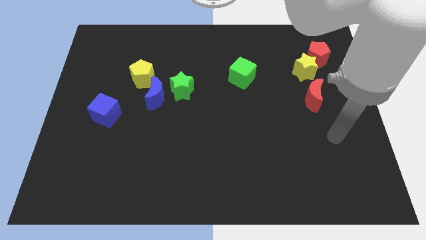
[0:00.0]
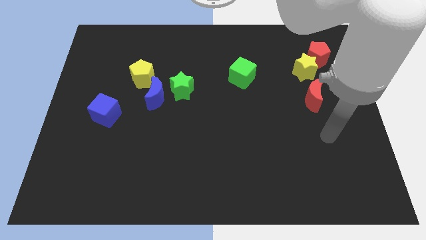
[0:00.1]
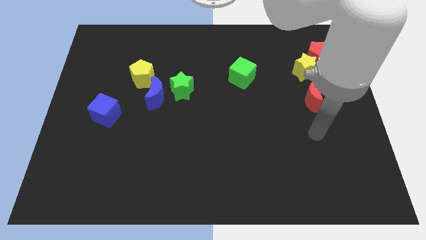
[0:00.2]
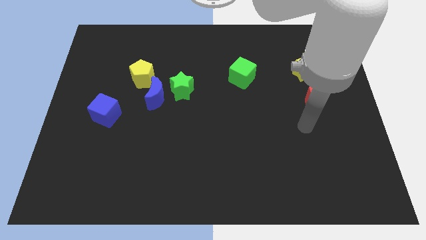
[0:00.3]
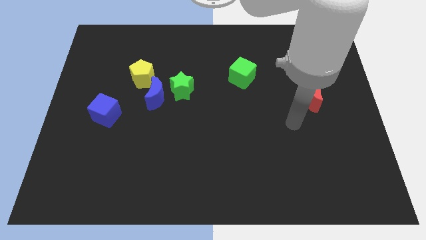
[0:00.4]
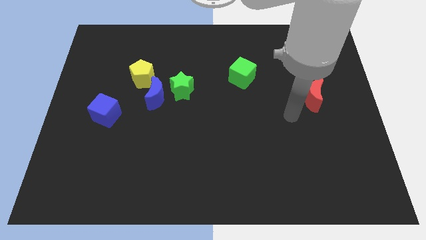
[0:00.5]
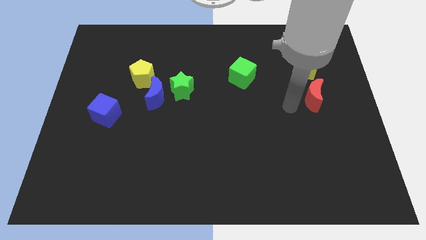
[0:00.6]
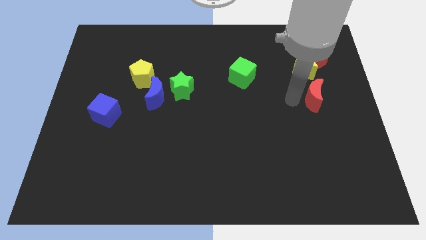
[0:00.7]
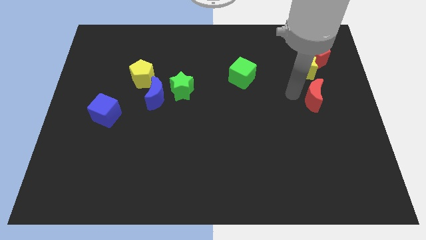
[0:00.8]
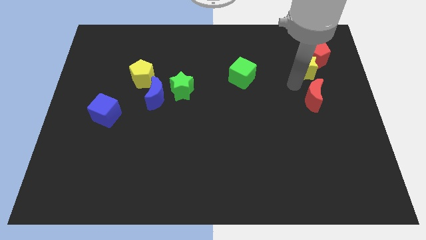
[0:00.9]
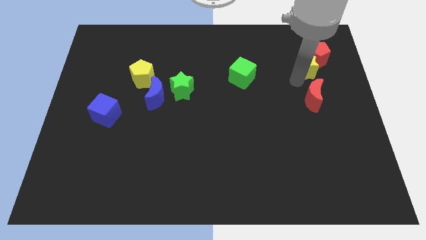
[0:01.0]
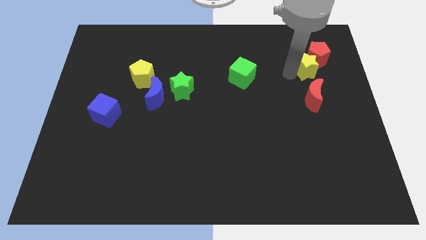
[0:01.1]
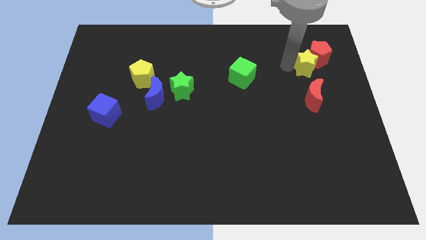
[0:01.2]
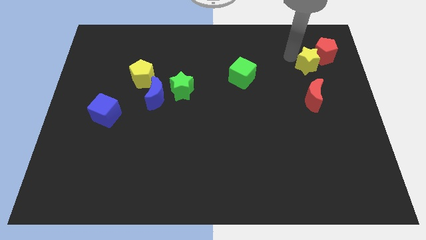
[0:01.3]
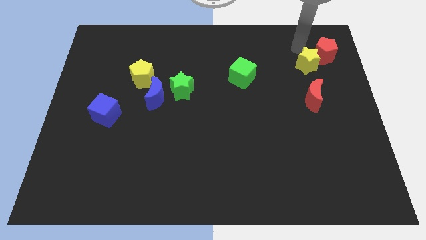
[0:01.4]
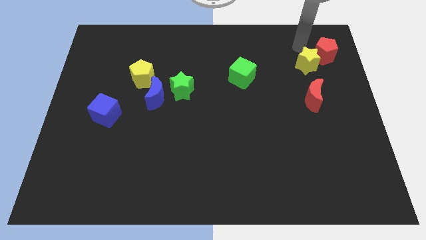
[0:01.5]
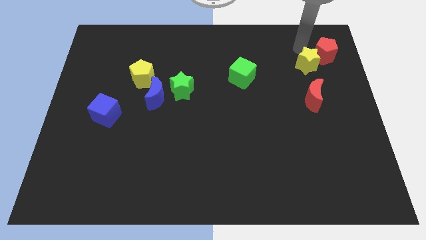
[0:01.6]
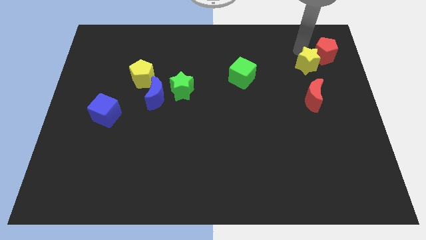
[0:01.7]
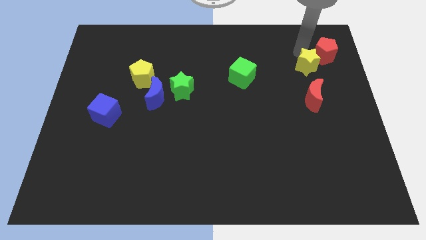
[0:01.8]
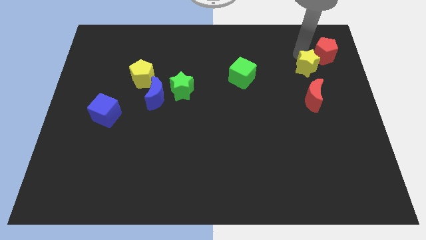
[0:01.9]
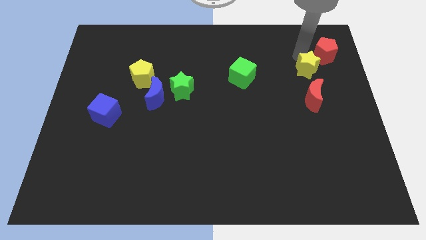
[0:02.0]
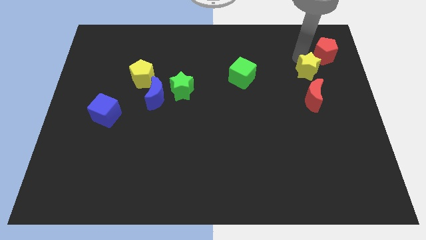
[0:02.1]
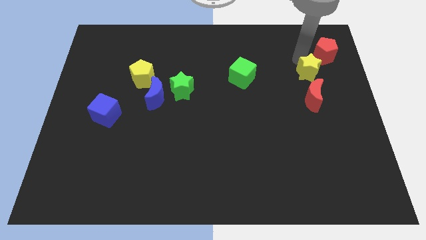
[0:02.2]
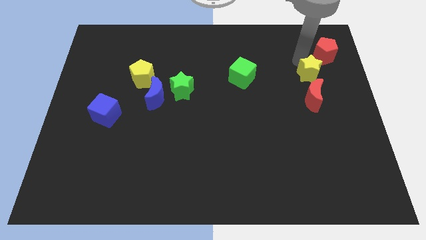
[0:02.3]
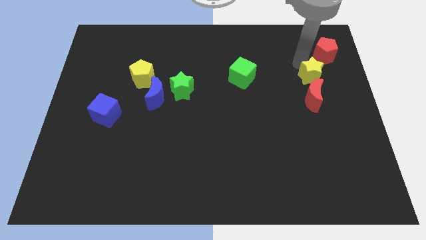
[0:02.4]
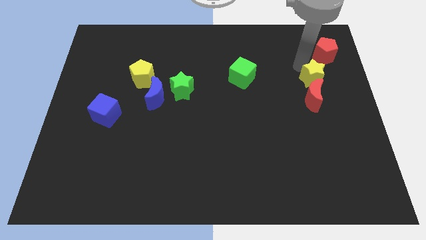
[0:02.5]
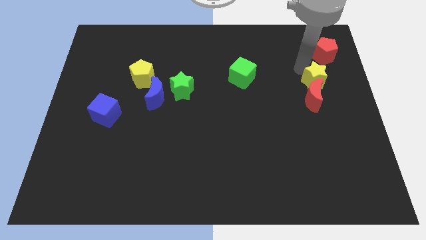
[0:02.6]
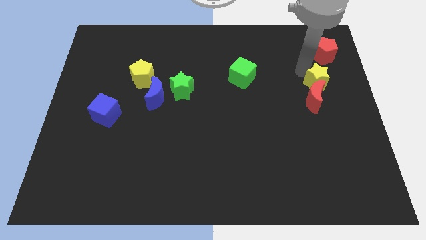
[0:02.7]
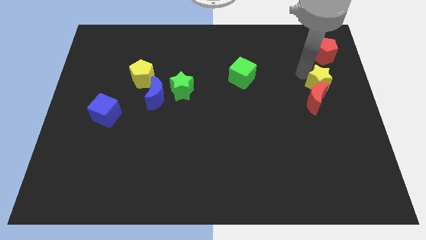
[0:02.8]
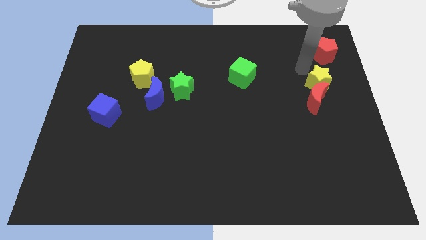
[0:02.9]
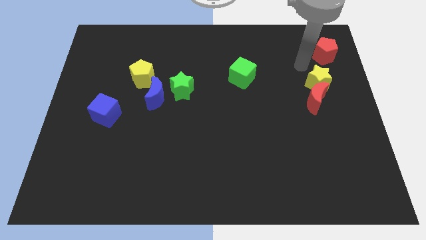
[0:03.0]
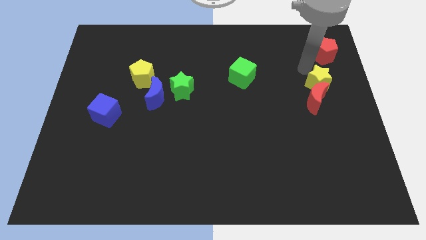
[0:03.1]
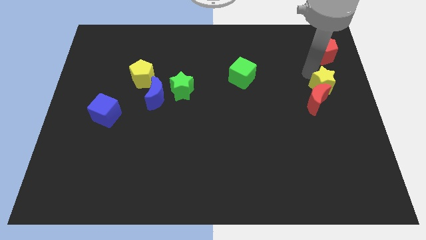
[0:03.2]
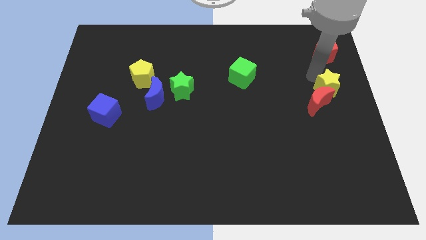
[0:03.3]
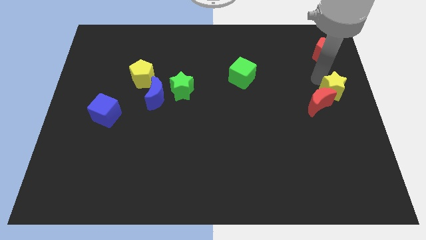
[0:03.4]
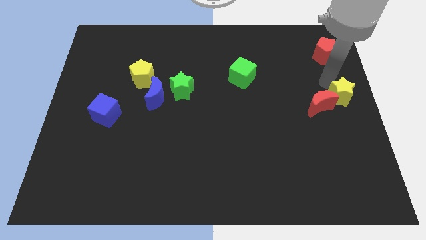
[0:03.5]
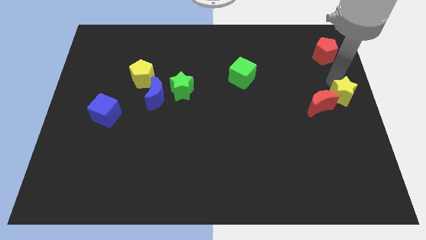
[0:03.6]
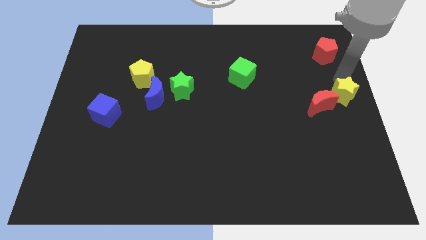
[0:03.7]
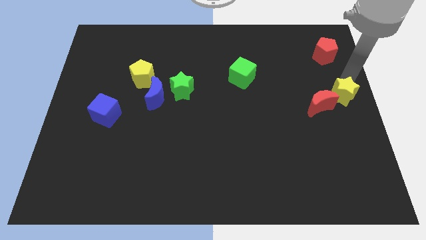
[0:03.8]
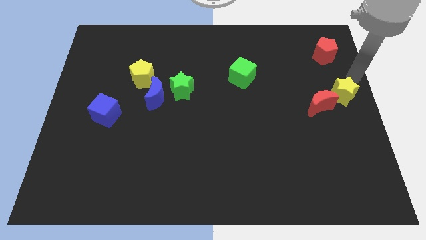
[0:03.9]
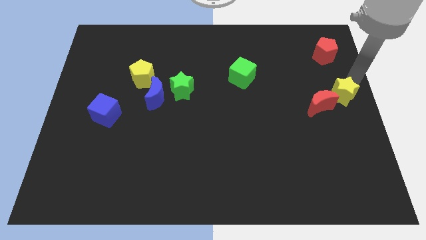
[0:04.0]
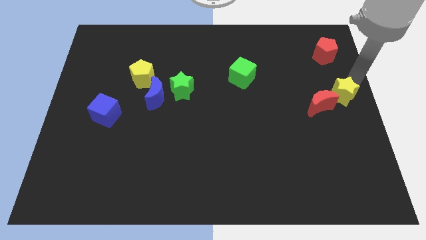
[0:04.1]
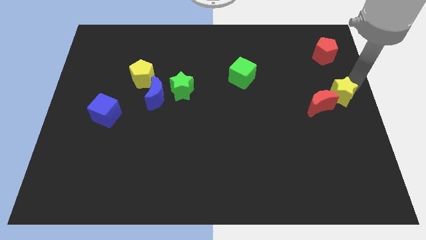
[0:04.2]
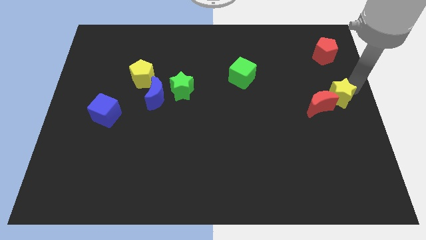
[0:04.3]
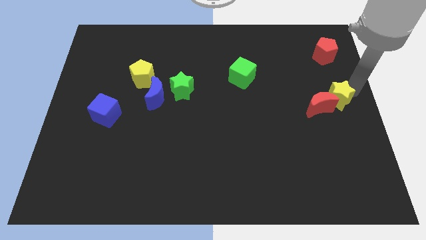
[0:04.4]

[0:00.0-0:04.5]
slightly push the yellow star downwards

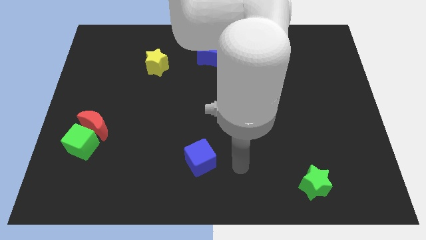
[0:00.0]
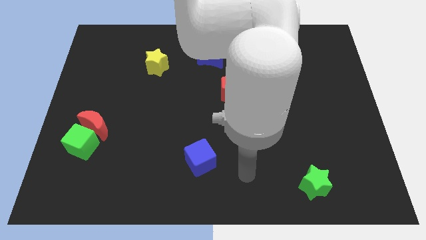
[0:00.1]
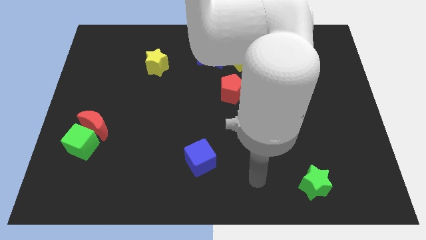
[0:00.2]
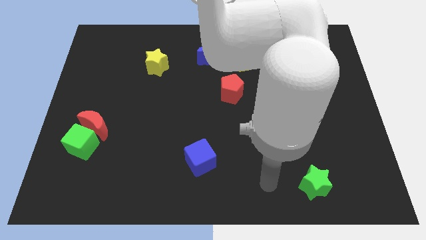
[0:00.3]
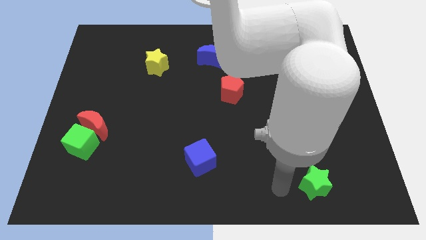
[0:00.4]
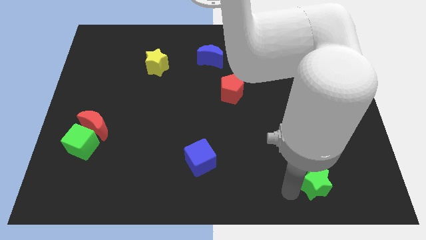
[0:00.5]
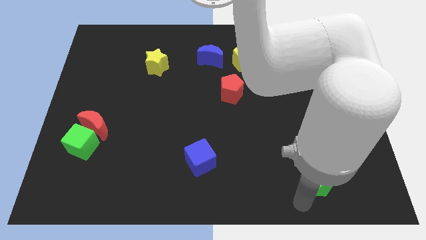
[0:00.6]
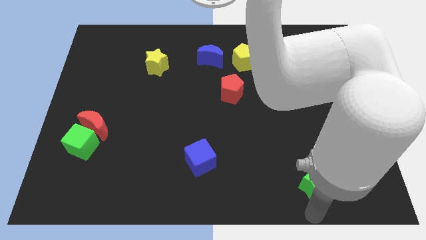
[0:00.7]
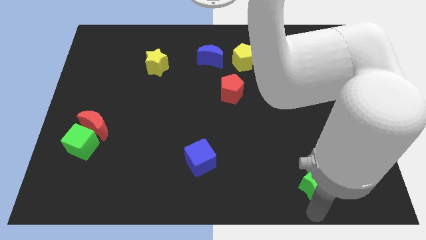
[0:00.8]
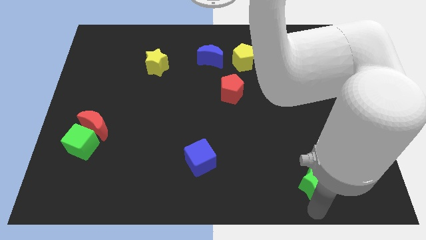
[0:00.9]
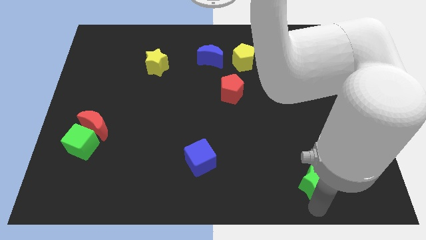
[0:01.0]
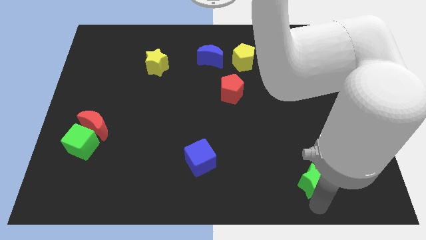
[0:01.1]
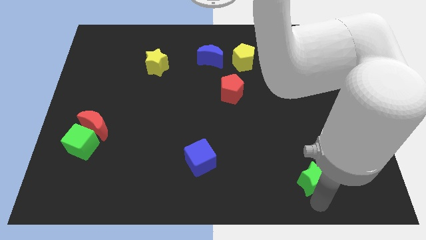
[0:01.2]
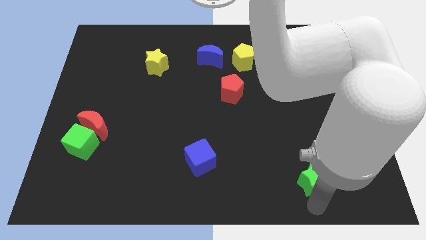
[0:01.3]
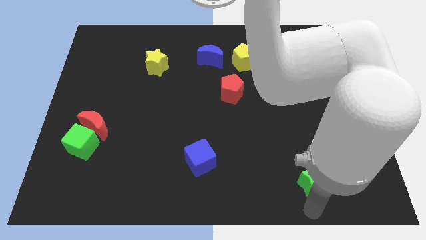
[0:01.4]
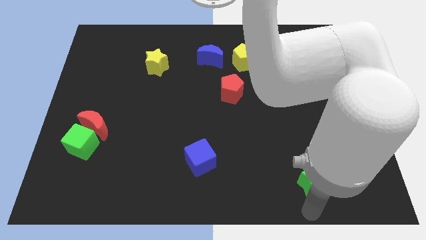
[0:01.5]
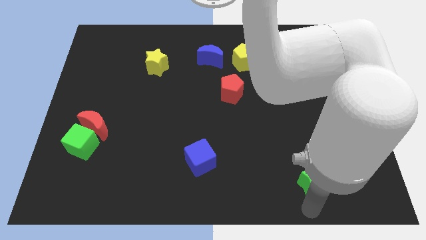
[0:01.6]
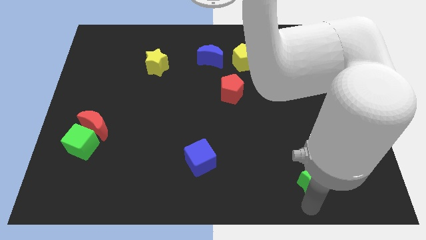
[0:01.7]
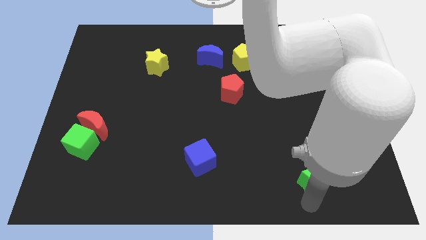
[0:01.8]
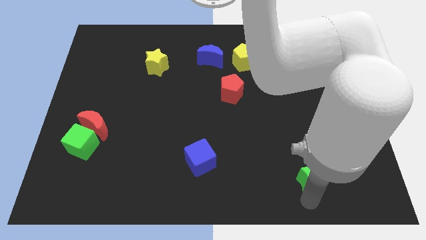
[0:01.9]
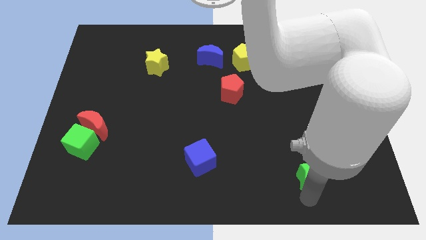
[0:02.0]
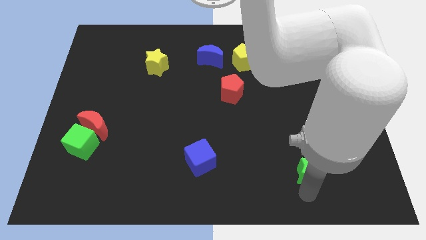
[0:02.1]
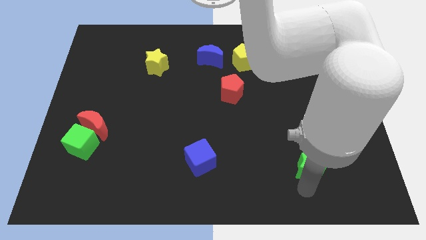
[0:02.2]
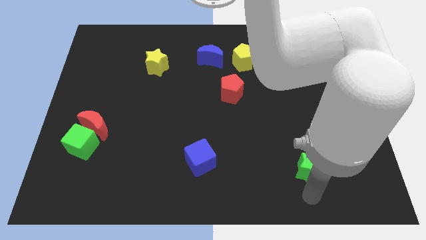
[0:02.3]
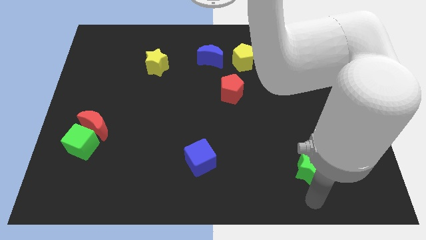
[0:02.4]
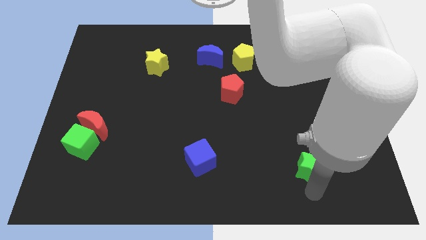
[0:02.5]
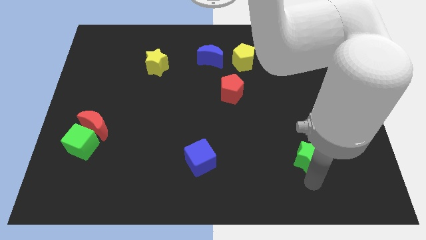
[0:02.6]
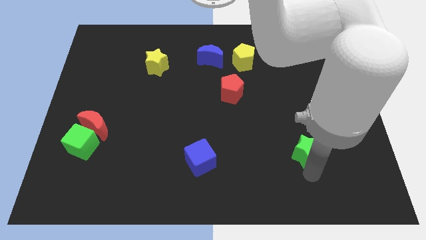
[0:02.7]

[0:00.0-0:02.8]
slightly push the green star upwards

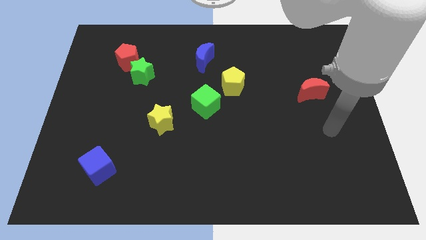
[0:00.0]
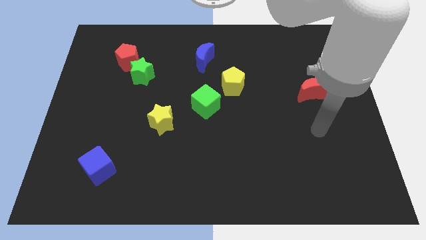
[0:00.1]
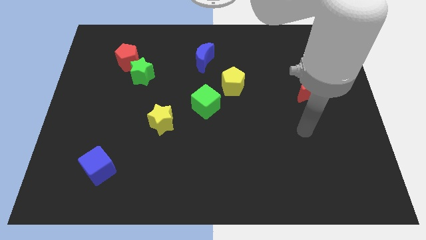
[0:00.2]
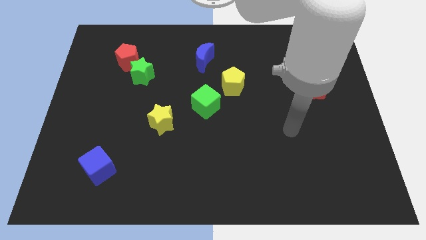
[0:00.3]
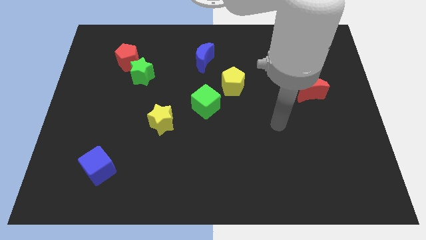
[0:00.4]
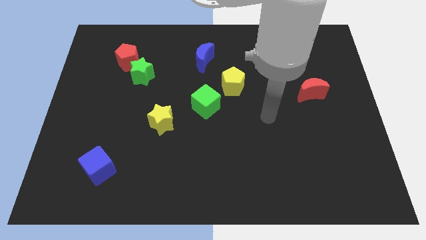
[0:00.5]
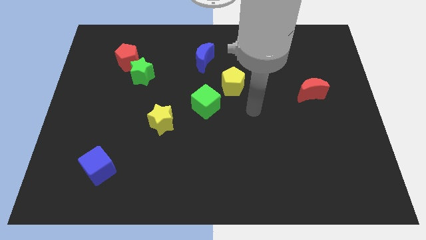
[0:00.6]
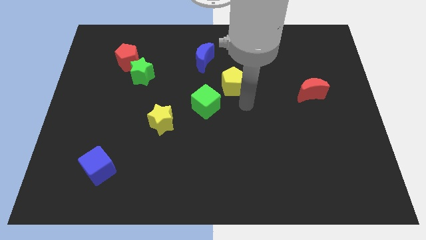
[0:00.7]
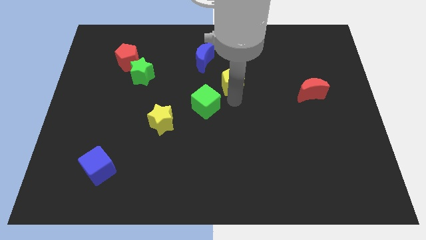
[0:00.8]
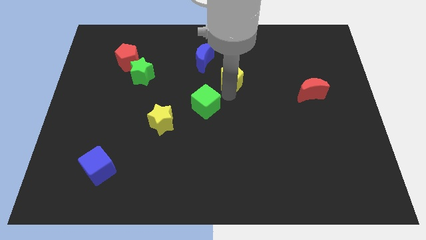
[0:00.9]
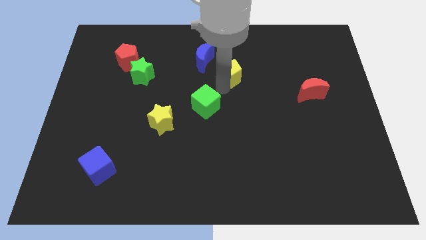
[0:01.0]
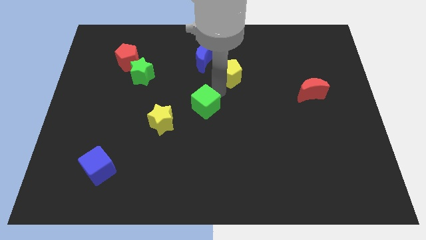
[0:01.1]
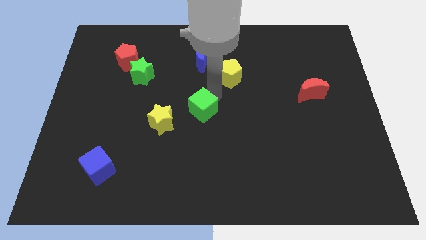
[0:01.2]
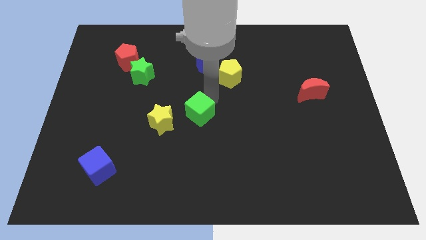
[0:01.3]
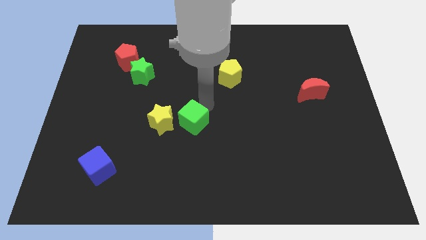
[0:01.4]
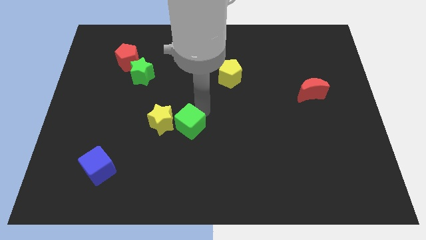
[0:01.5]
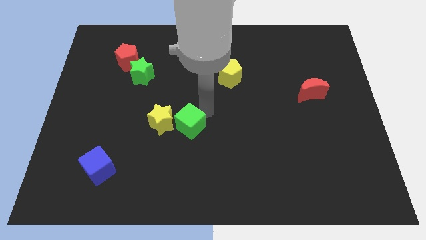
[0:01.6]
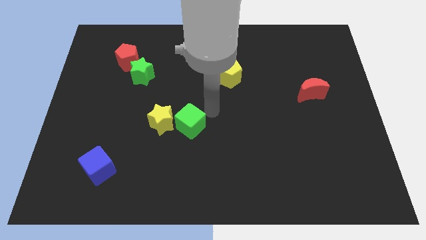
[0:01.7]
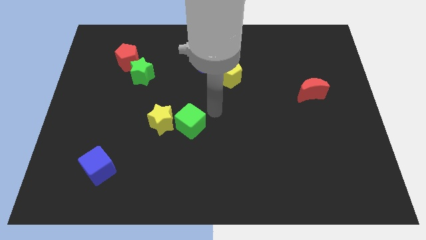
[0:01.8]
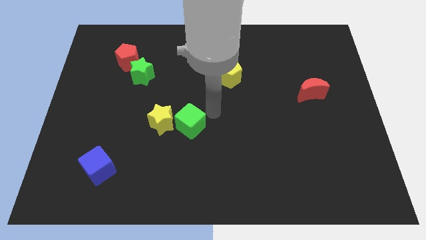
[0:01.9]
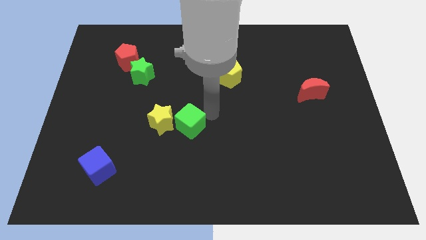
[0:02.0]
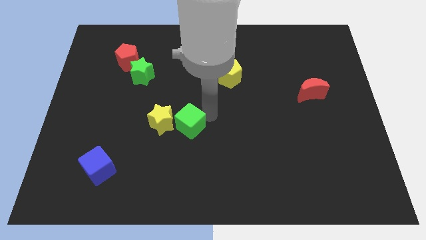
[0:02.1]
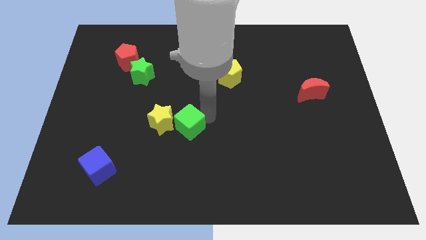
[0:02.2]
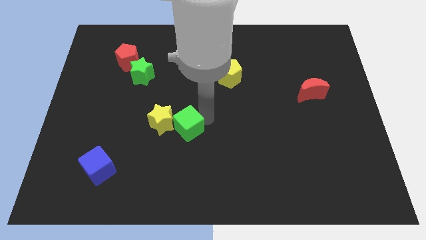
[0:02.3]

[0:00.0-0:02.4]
slightly move the green cube diagonally down and to the left
